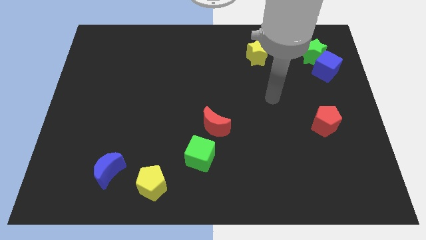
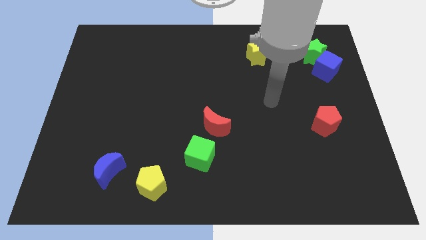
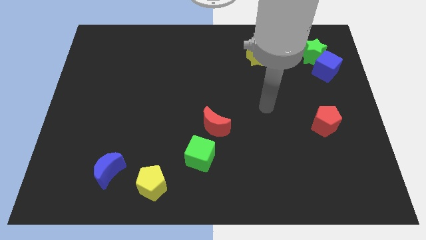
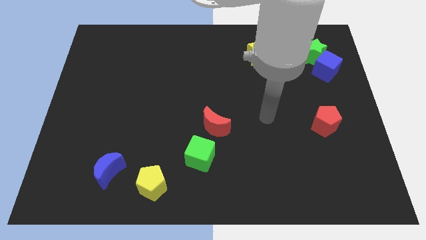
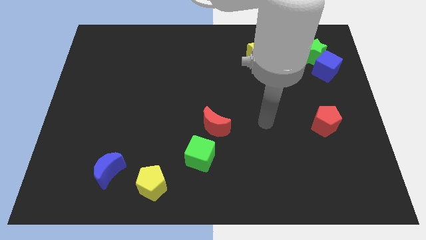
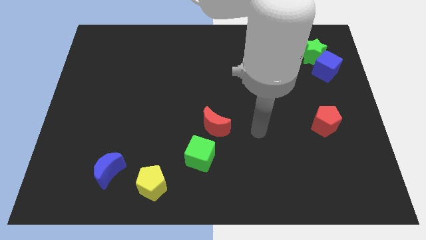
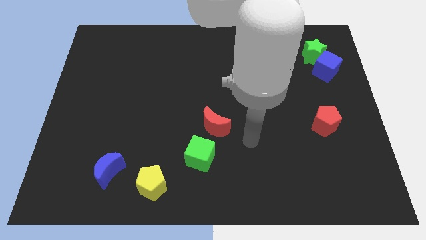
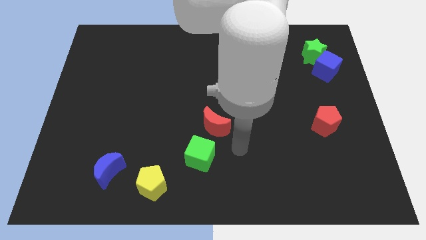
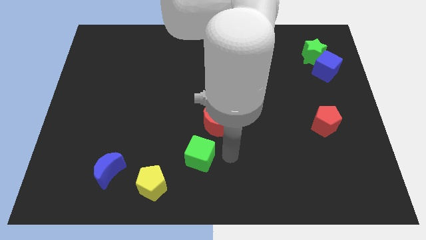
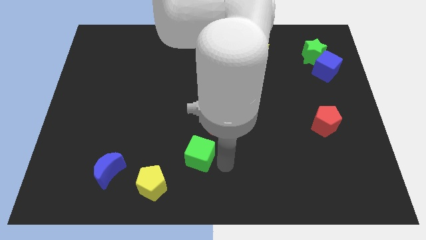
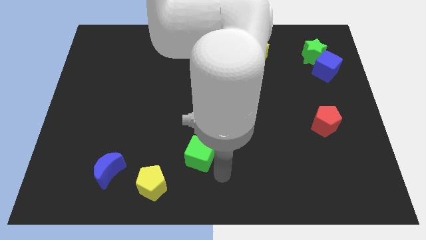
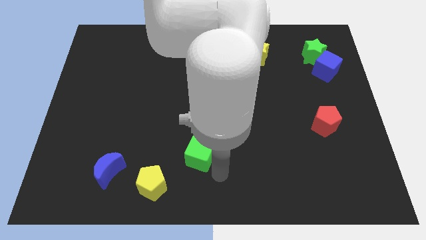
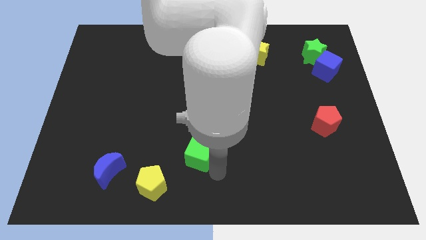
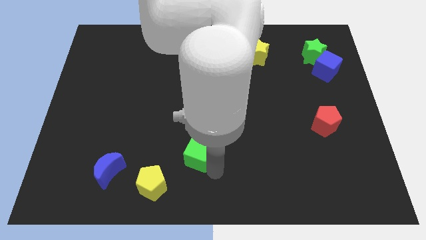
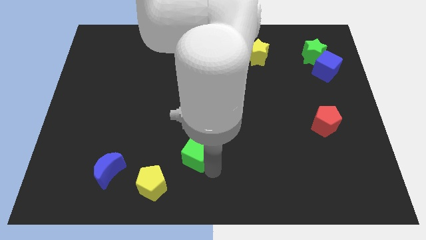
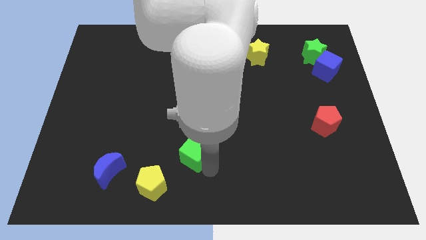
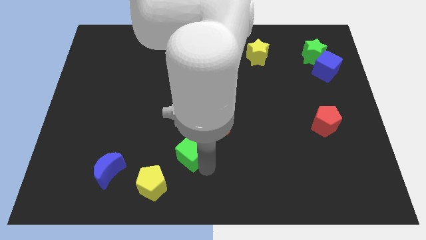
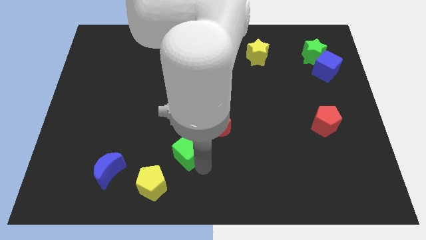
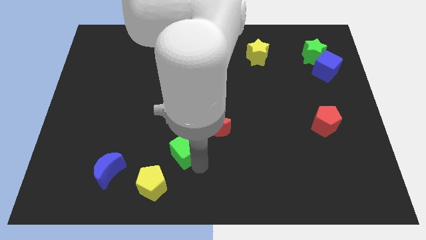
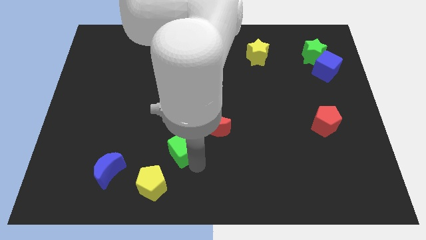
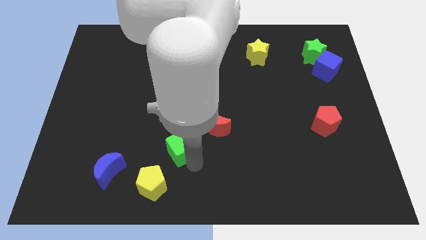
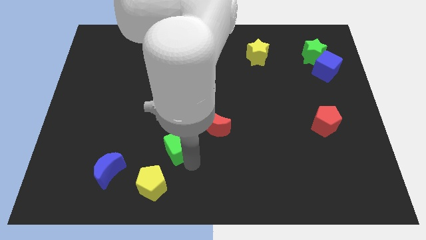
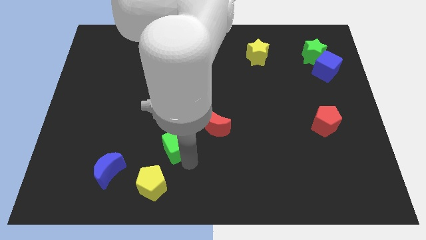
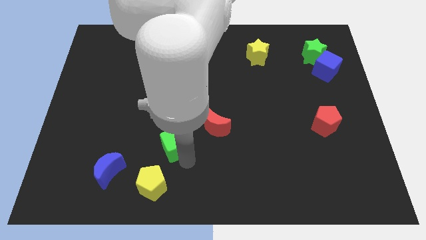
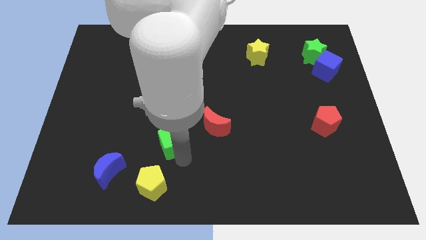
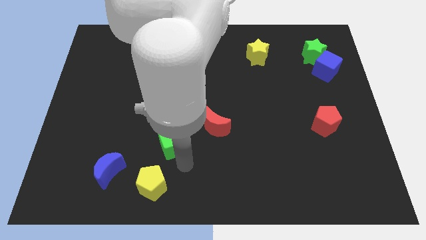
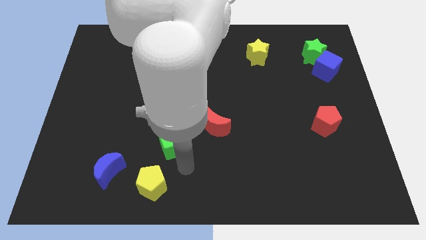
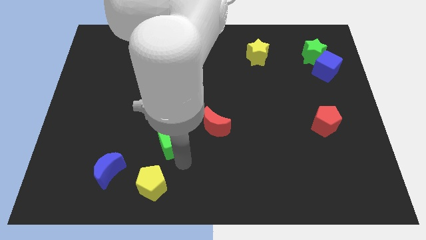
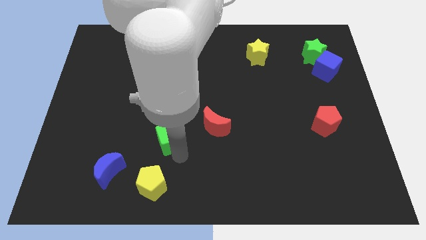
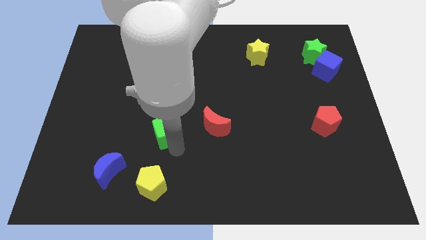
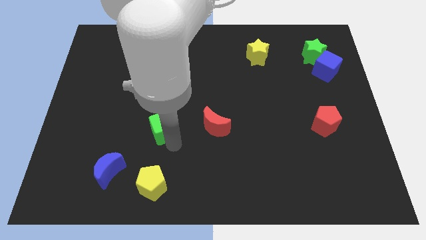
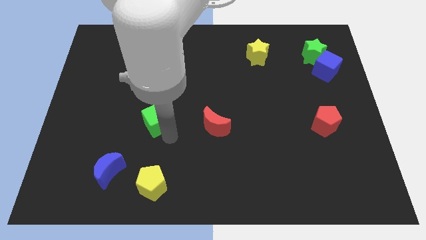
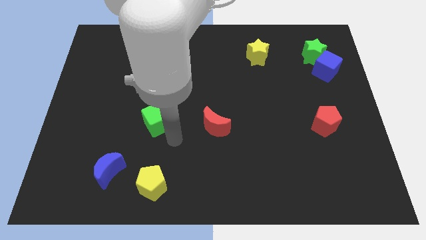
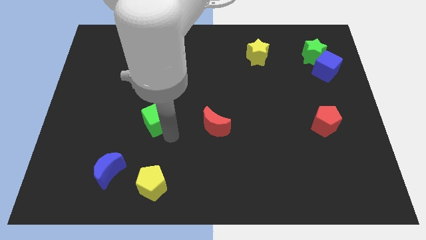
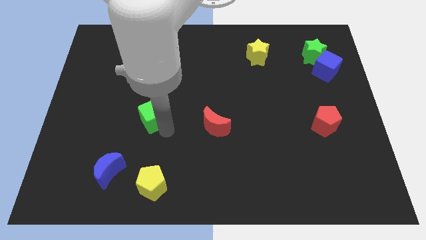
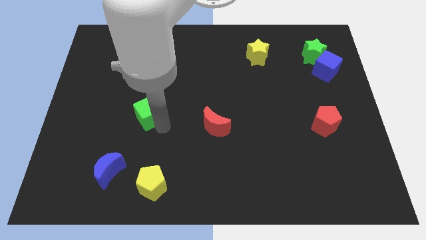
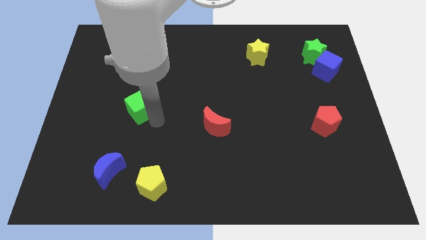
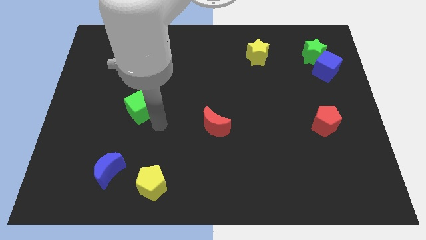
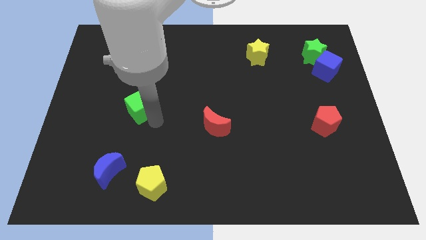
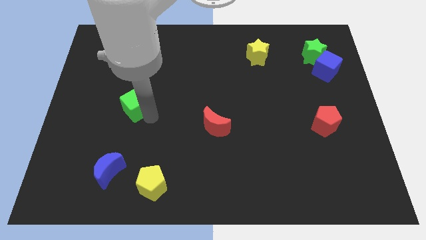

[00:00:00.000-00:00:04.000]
move the green cube up and then to the left

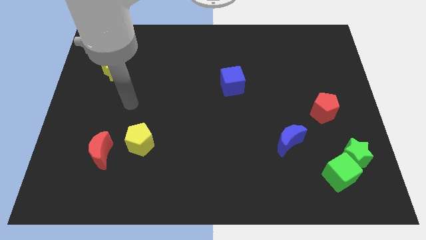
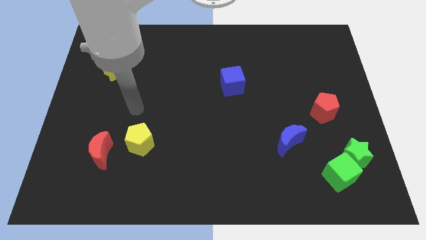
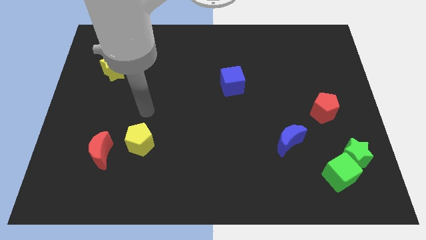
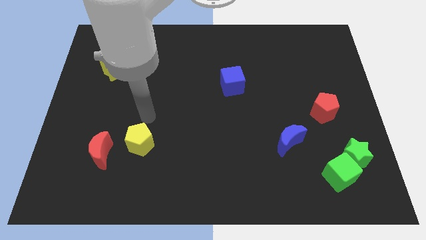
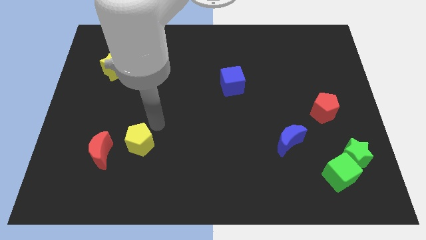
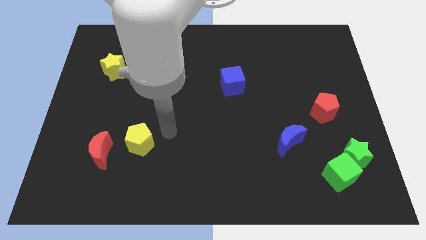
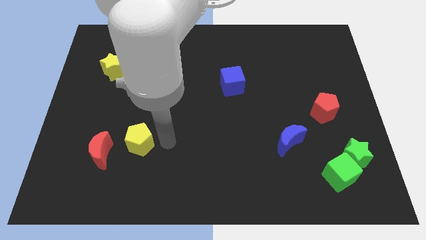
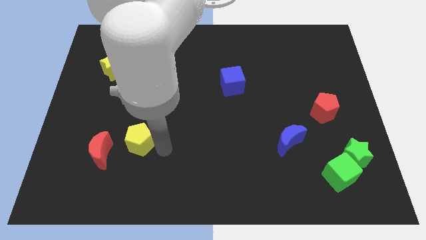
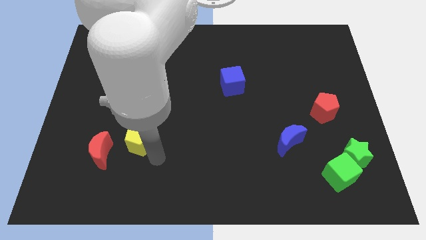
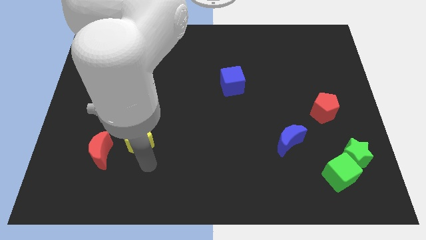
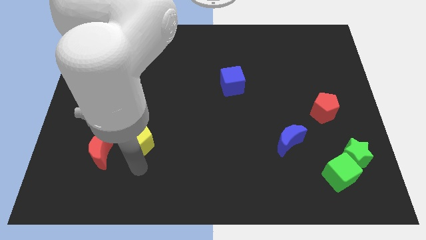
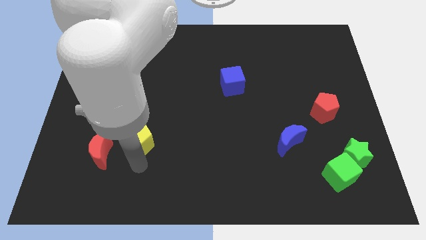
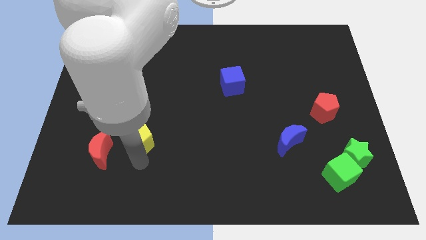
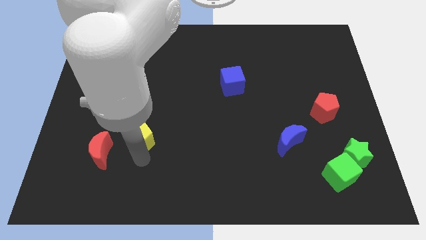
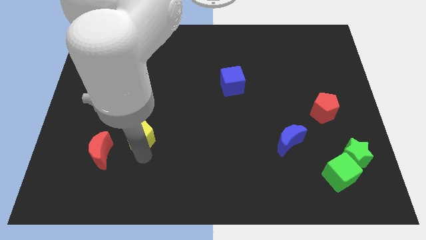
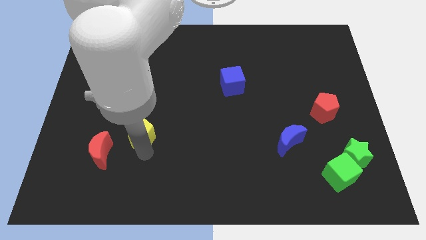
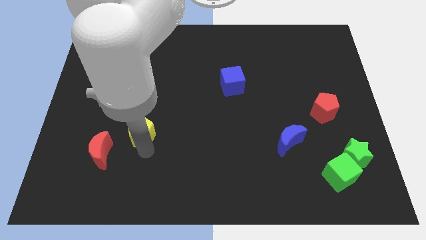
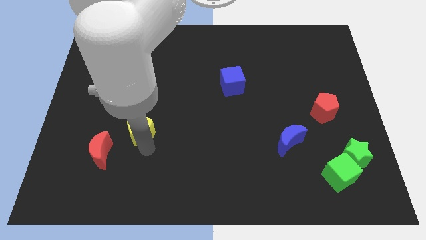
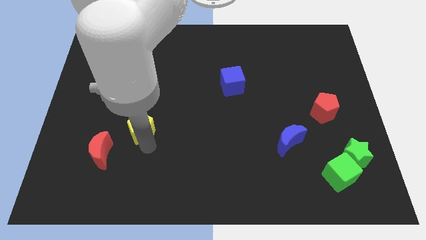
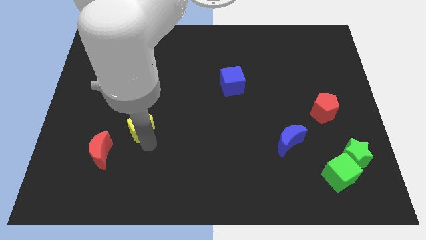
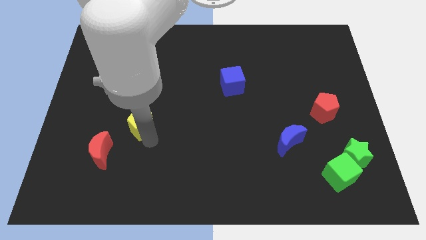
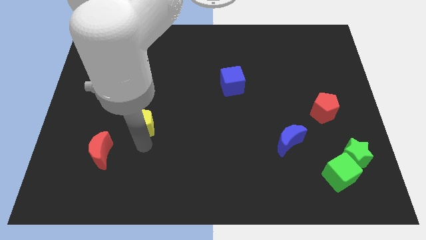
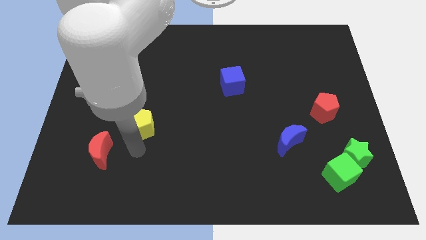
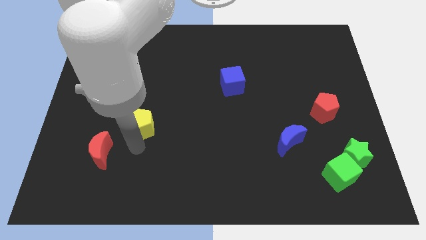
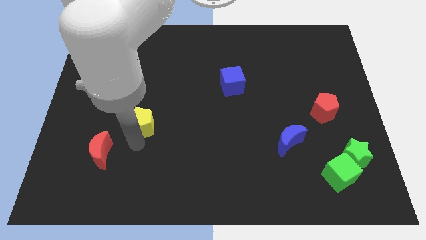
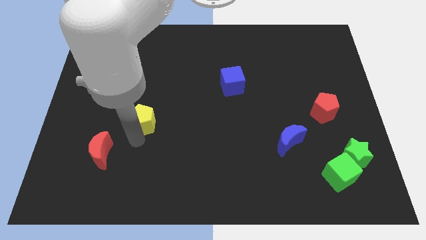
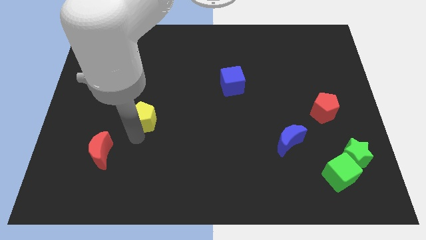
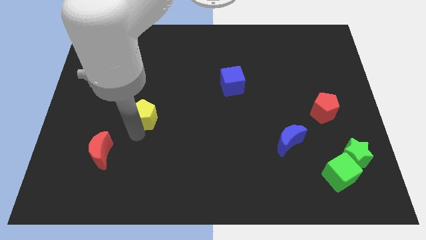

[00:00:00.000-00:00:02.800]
move the yellow pentagon up slightly

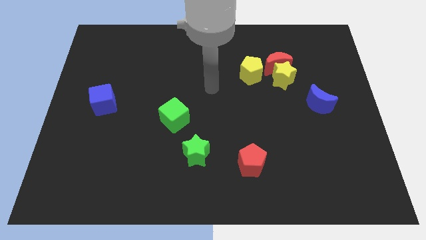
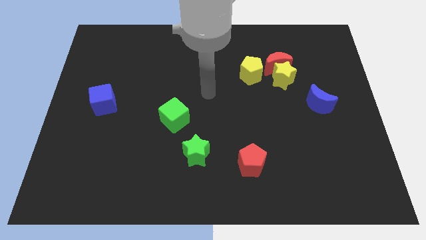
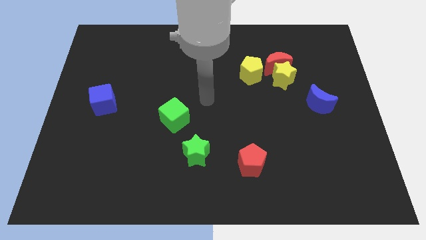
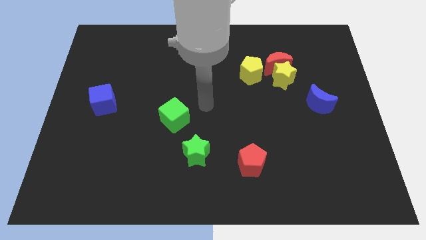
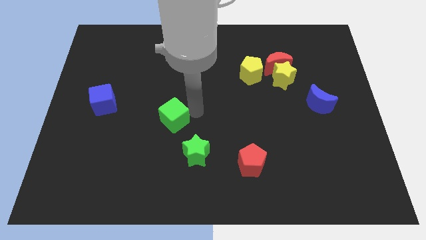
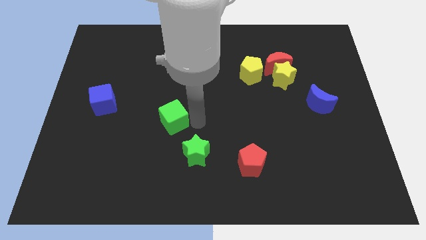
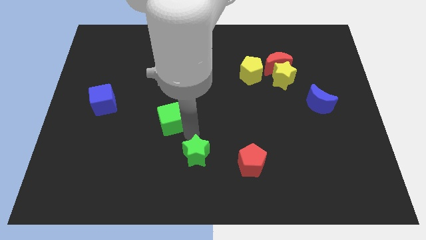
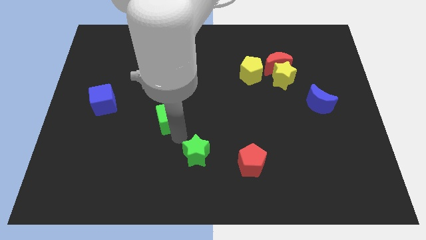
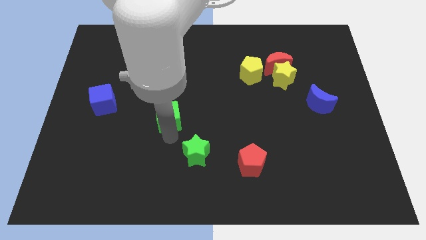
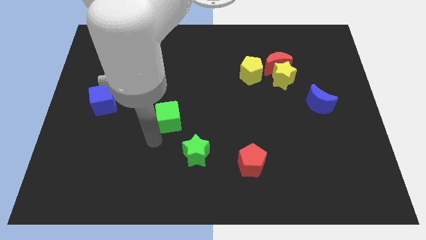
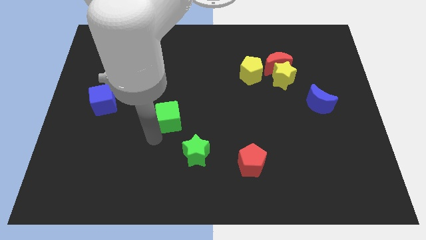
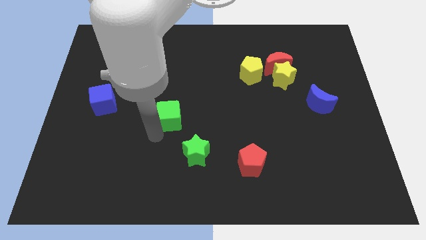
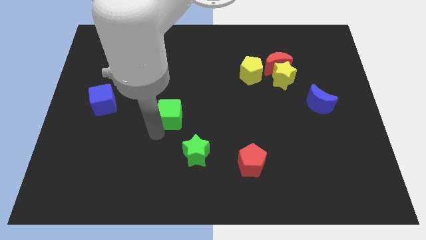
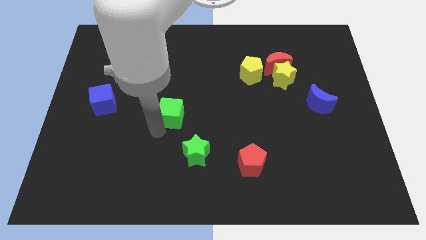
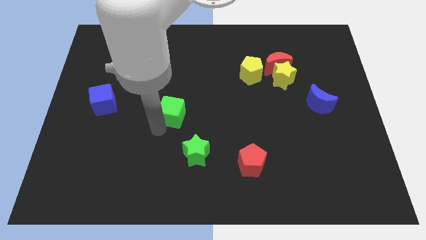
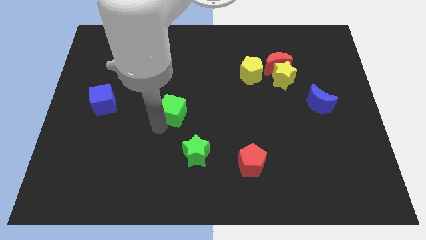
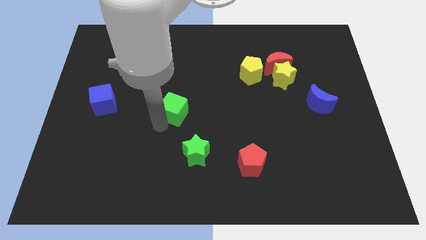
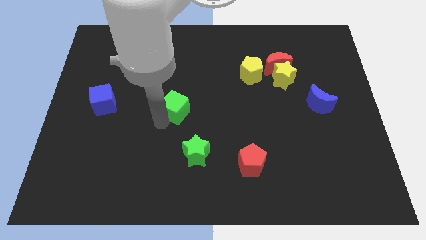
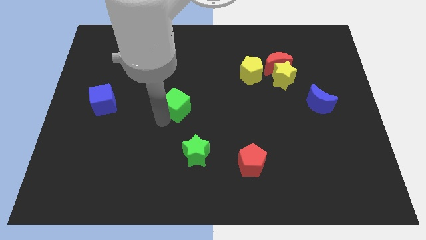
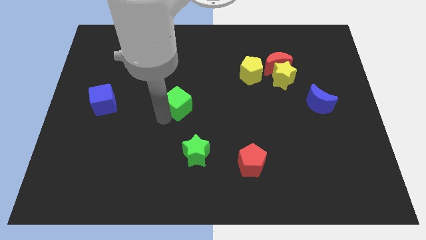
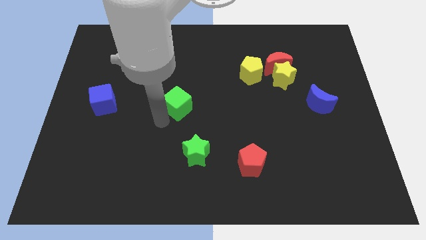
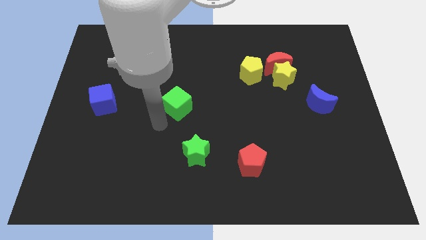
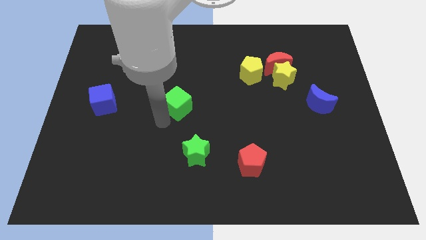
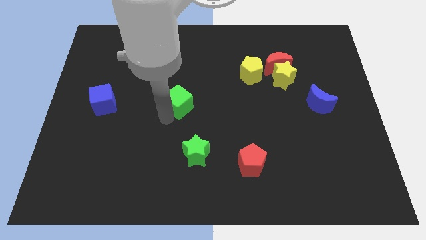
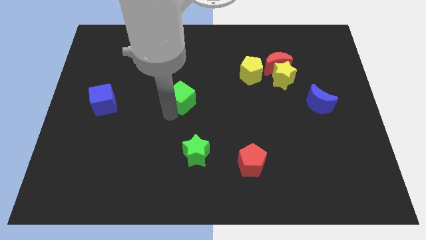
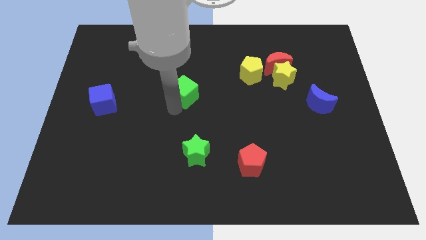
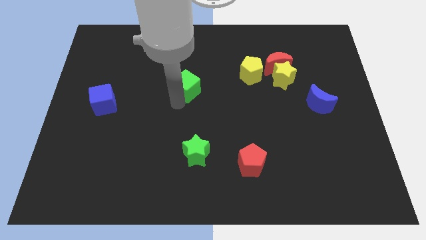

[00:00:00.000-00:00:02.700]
slightly move the green cube up and then right
